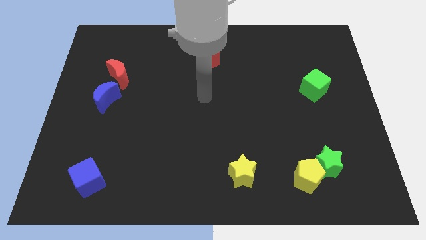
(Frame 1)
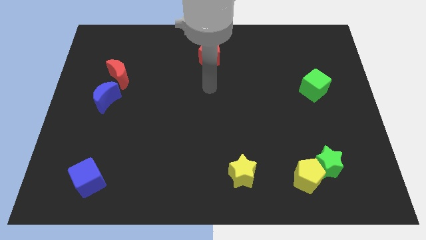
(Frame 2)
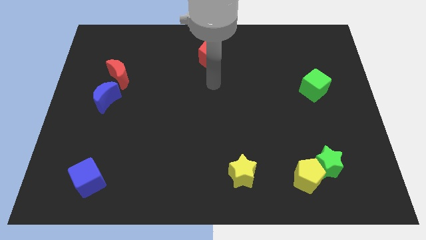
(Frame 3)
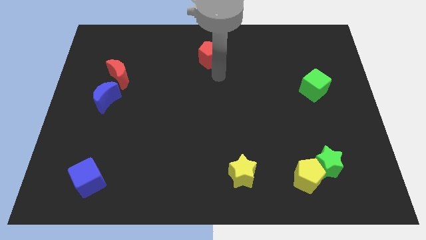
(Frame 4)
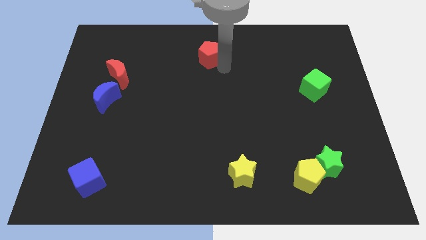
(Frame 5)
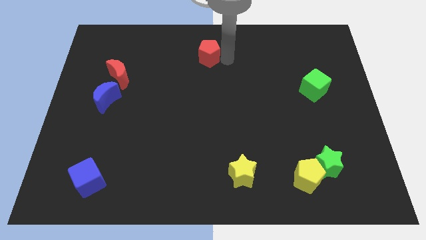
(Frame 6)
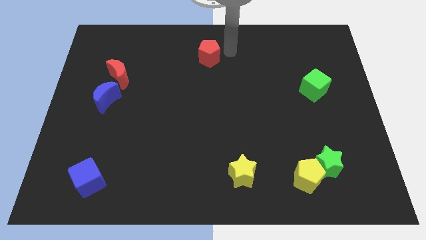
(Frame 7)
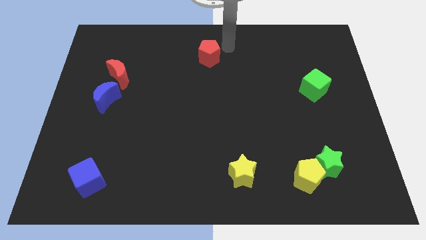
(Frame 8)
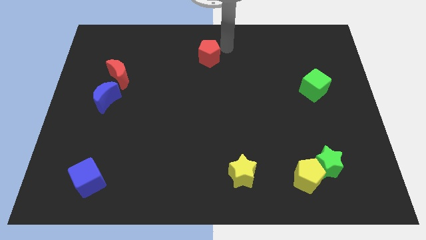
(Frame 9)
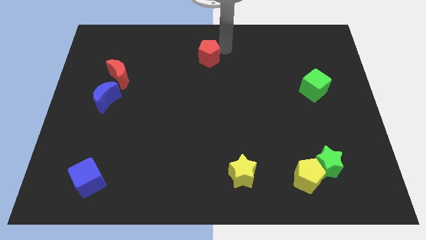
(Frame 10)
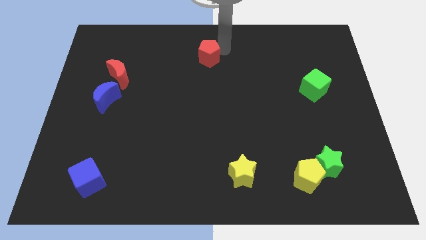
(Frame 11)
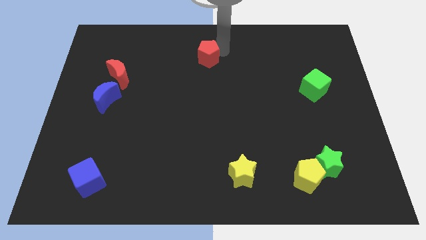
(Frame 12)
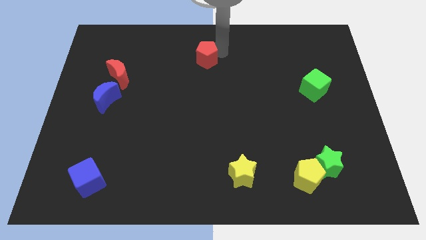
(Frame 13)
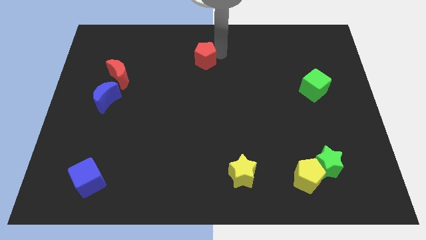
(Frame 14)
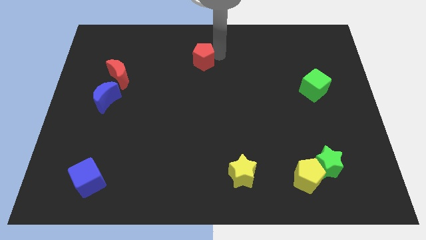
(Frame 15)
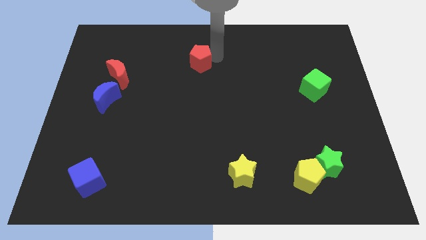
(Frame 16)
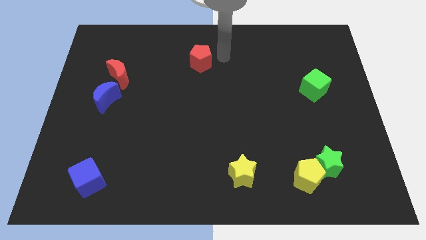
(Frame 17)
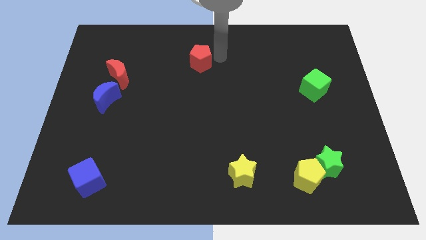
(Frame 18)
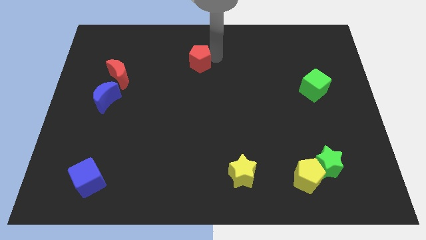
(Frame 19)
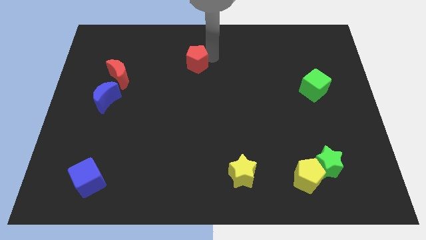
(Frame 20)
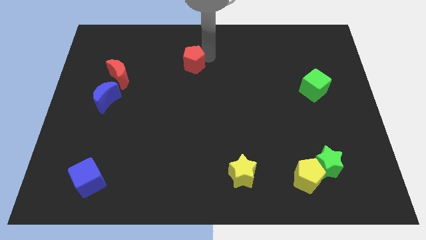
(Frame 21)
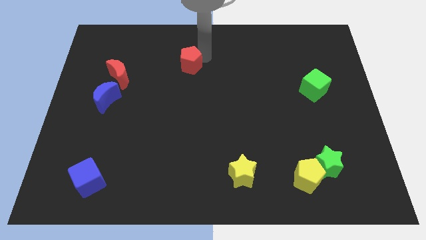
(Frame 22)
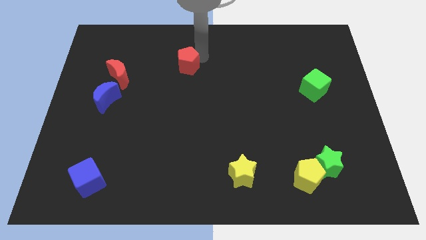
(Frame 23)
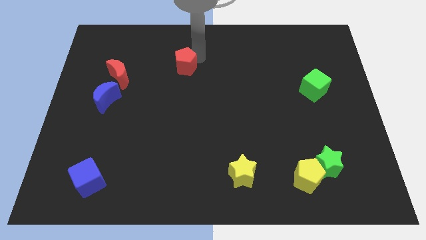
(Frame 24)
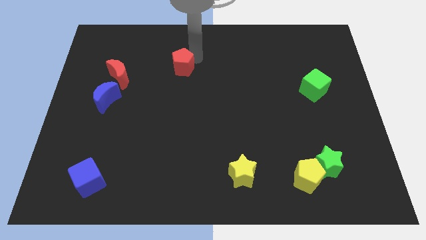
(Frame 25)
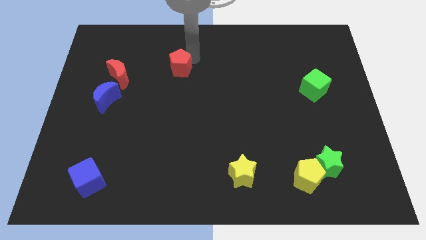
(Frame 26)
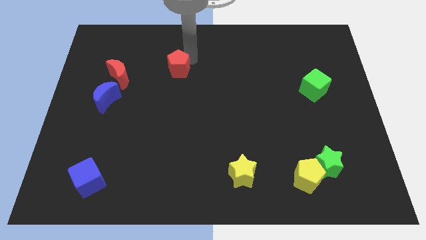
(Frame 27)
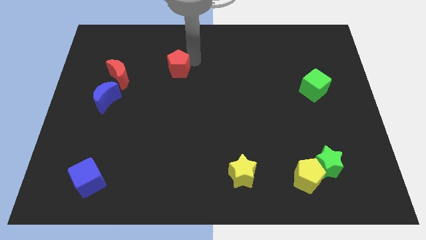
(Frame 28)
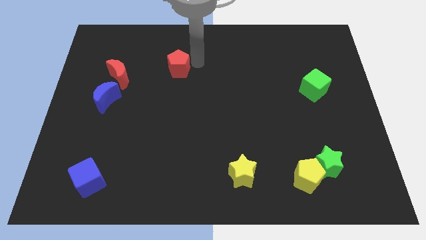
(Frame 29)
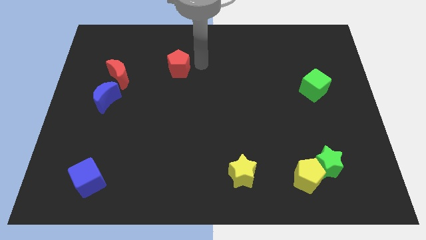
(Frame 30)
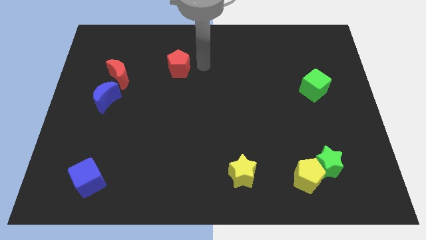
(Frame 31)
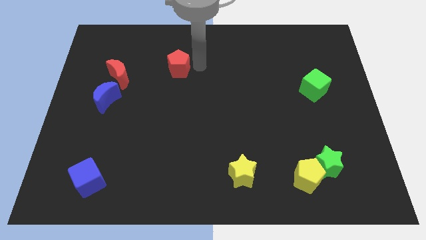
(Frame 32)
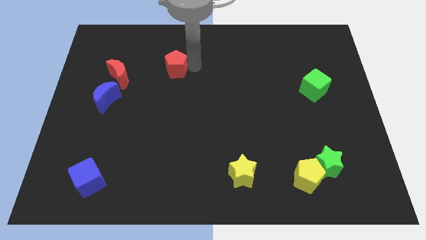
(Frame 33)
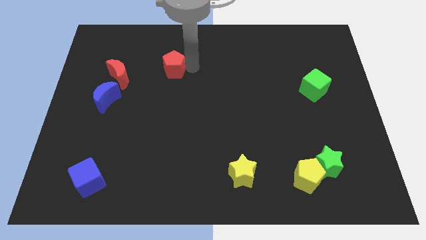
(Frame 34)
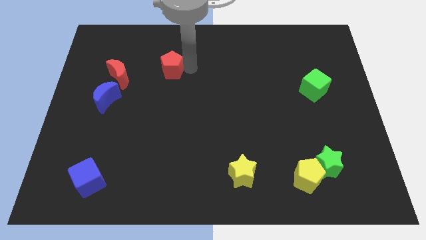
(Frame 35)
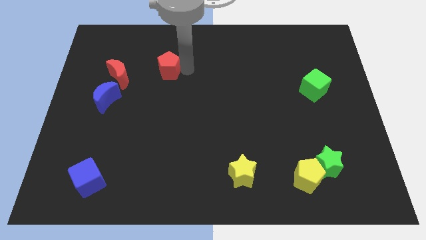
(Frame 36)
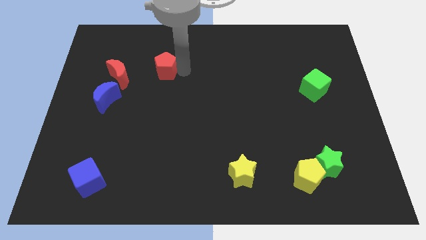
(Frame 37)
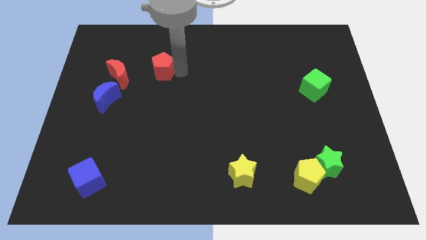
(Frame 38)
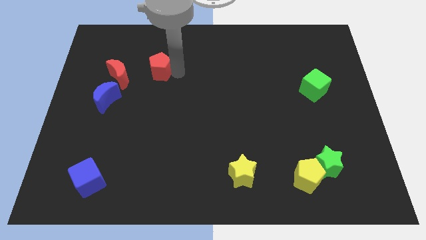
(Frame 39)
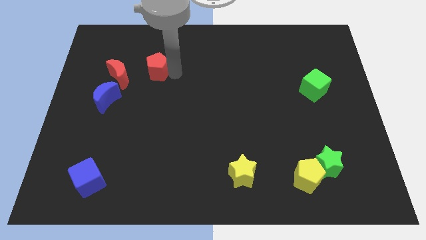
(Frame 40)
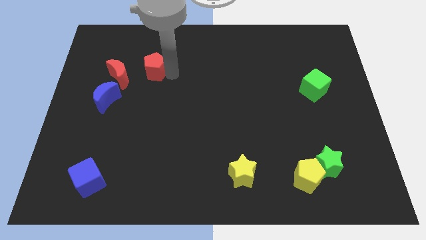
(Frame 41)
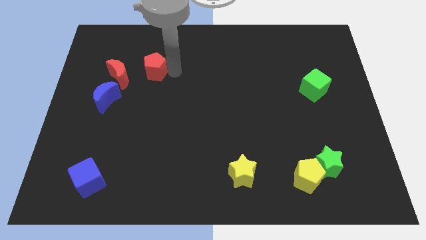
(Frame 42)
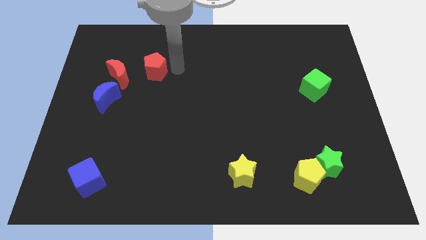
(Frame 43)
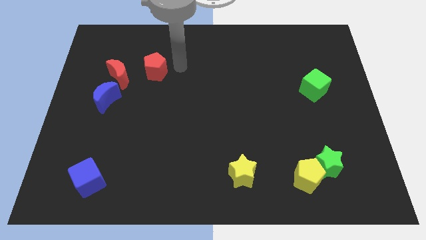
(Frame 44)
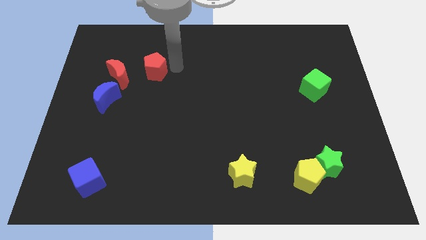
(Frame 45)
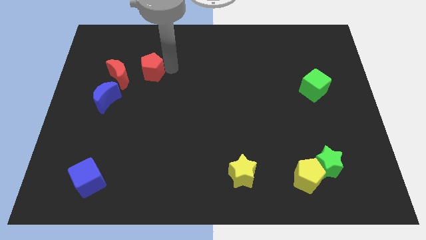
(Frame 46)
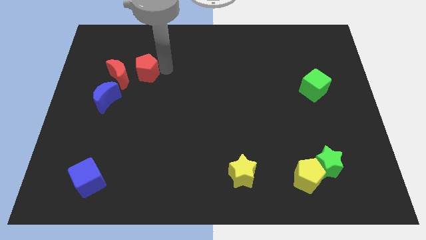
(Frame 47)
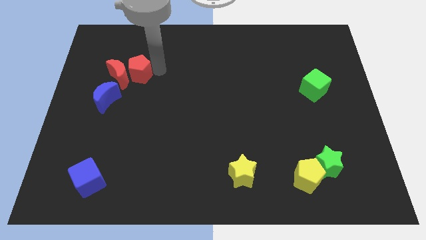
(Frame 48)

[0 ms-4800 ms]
push the red pentagon next to the red moon

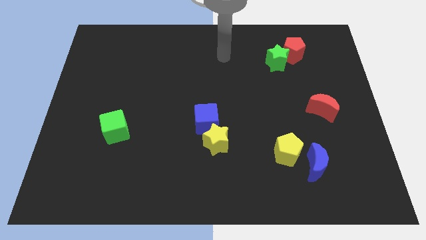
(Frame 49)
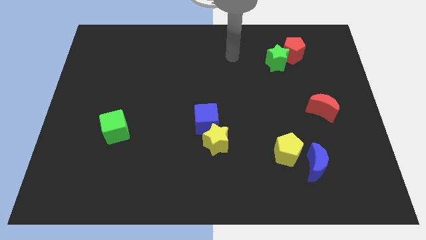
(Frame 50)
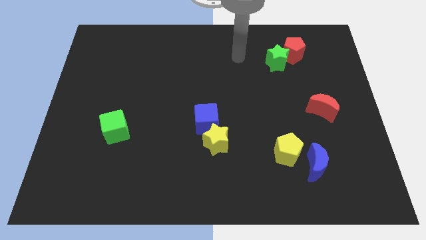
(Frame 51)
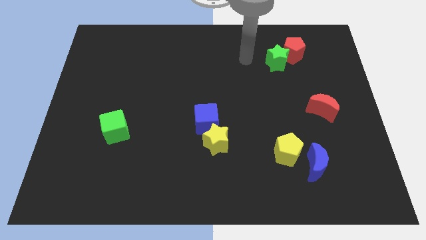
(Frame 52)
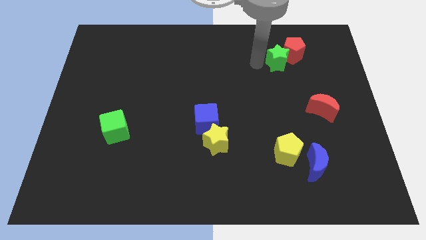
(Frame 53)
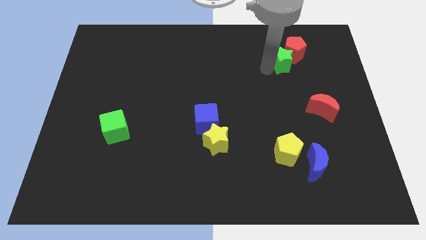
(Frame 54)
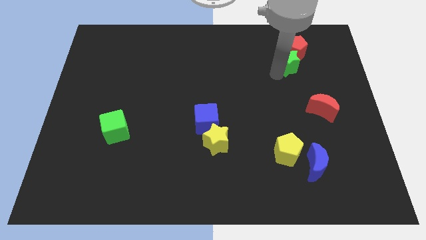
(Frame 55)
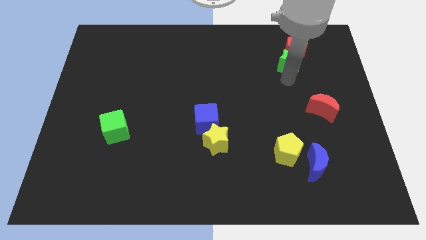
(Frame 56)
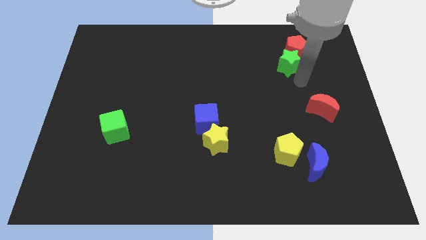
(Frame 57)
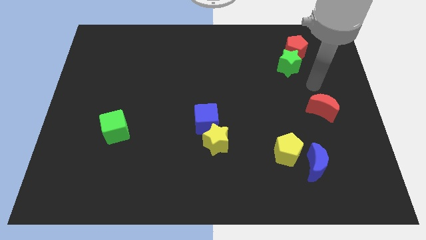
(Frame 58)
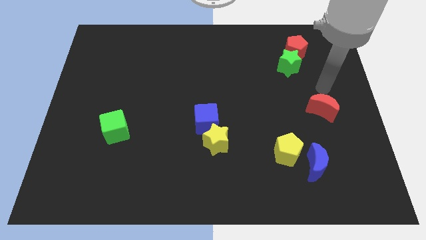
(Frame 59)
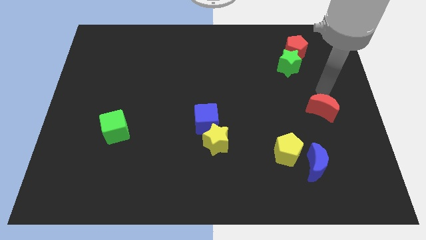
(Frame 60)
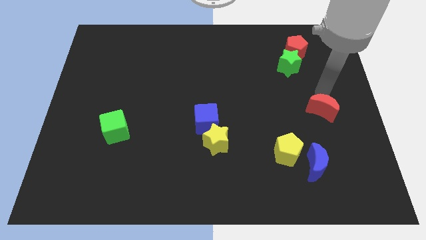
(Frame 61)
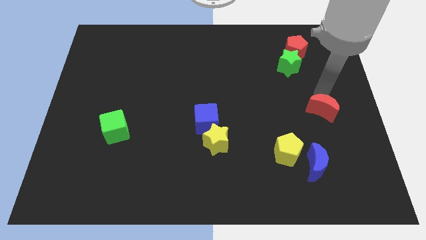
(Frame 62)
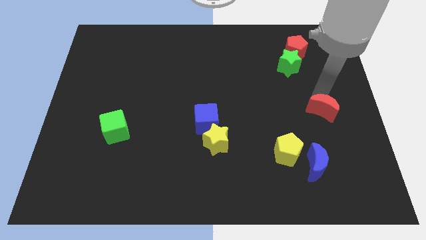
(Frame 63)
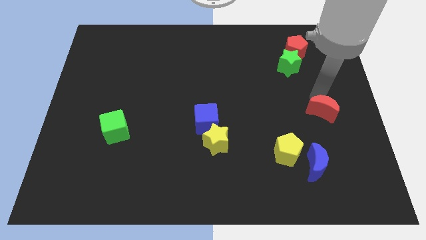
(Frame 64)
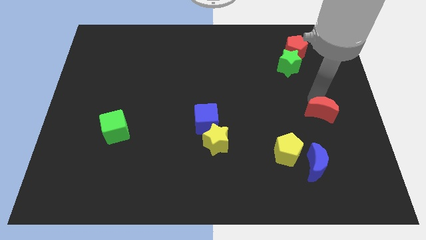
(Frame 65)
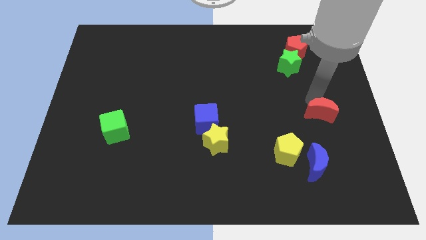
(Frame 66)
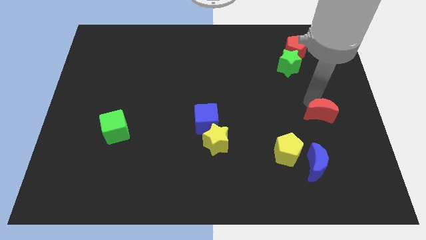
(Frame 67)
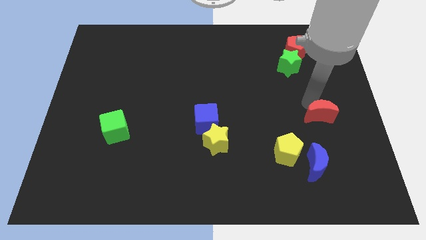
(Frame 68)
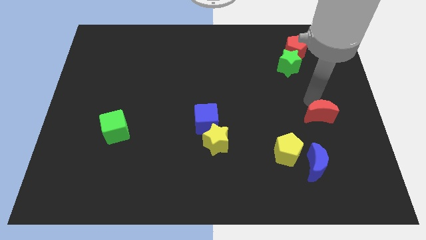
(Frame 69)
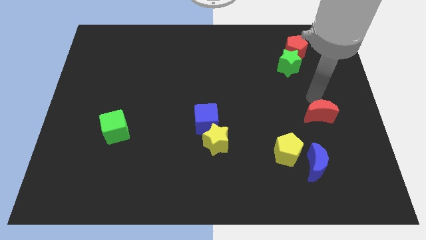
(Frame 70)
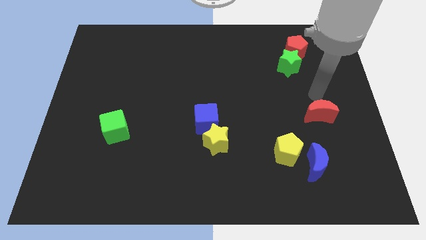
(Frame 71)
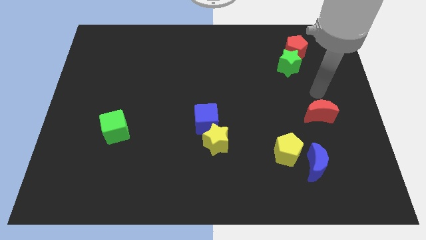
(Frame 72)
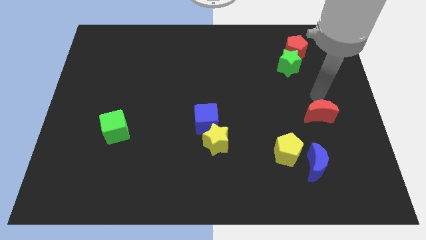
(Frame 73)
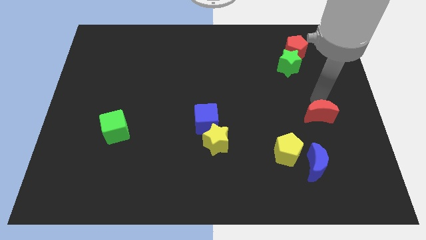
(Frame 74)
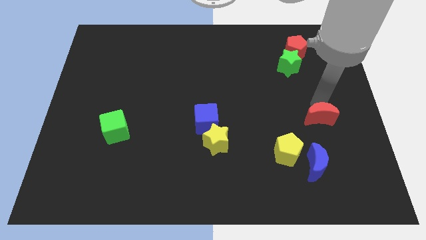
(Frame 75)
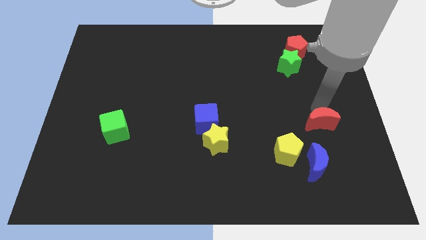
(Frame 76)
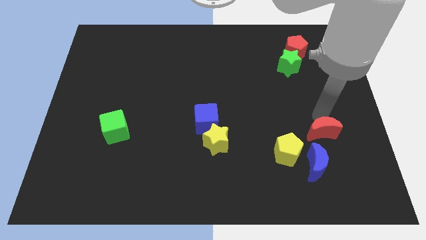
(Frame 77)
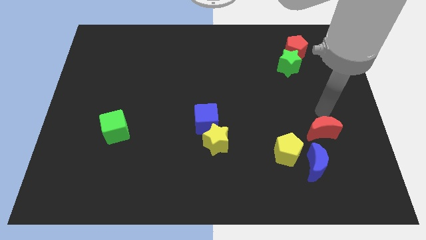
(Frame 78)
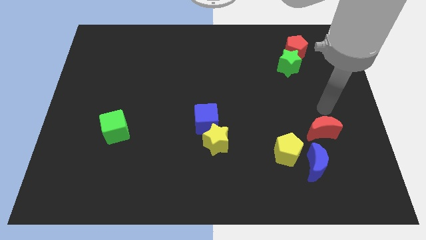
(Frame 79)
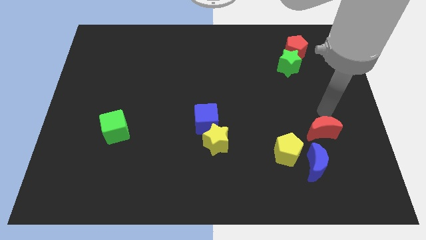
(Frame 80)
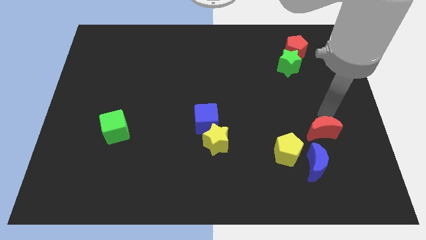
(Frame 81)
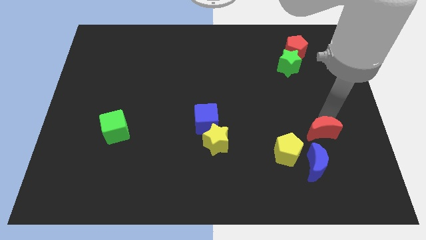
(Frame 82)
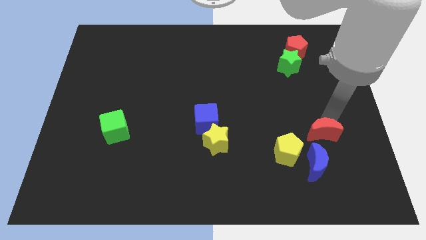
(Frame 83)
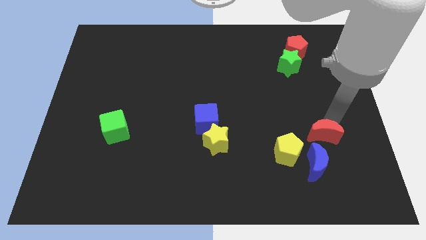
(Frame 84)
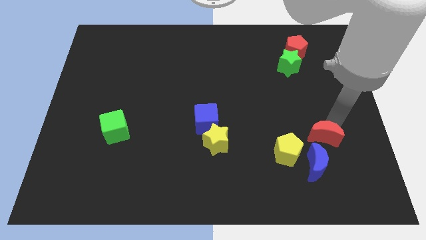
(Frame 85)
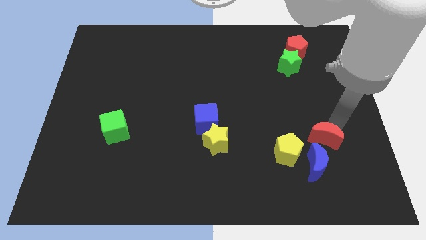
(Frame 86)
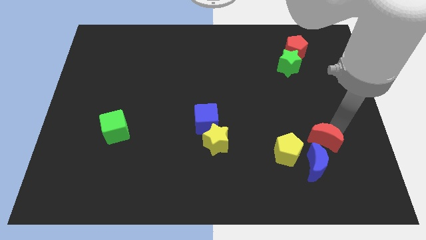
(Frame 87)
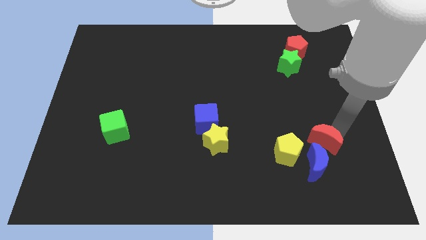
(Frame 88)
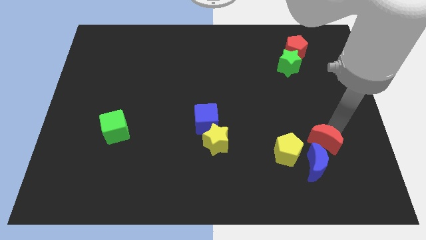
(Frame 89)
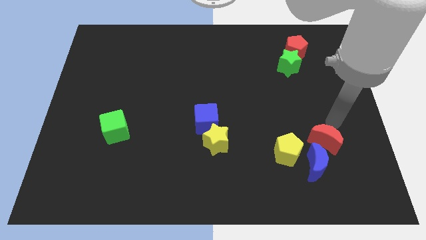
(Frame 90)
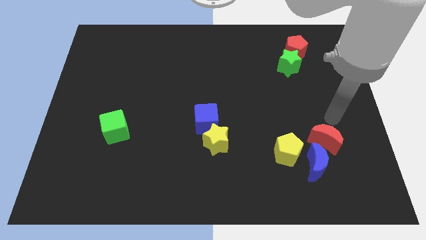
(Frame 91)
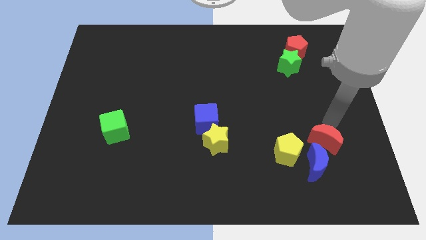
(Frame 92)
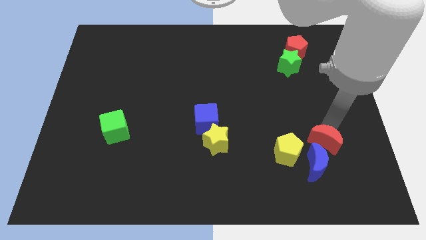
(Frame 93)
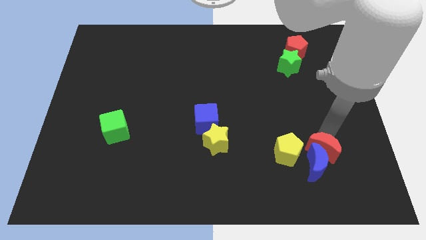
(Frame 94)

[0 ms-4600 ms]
move the red moon towards the blue moon
